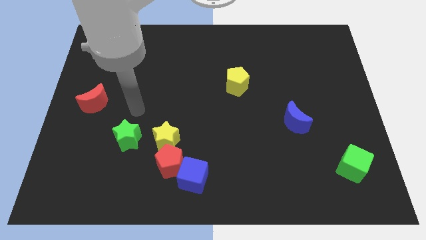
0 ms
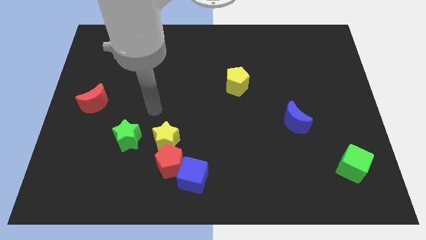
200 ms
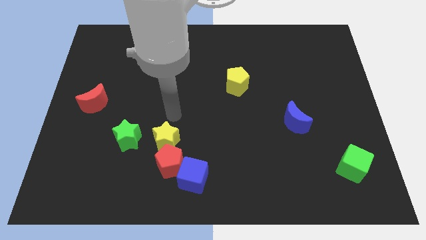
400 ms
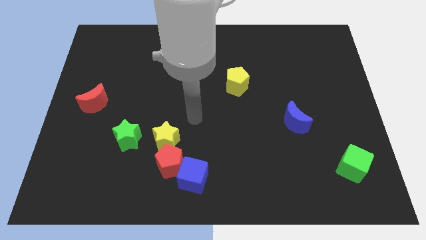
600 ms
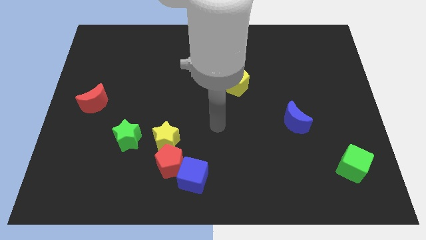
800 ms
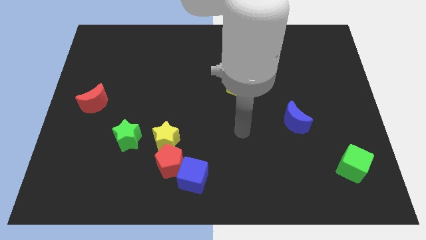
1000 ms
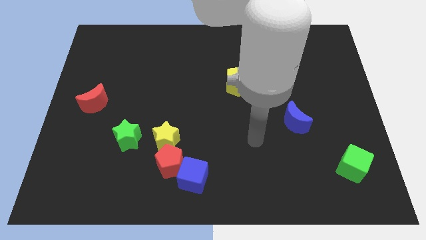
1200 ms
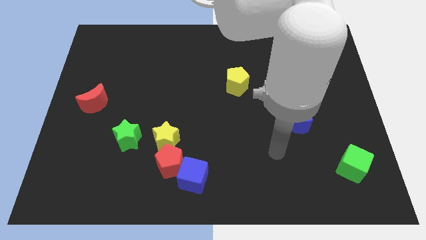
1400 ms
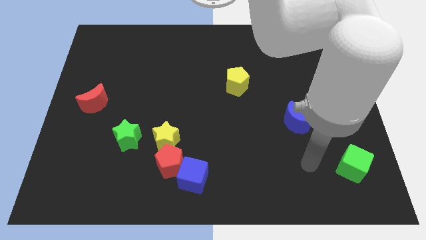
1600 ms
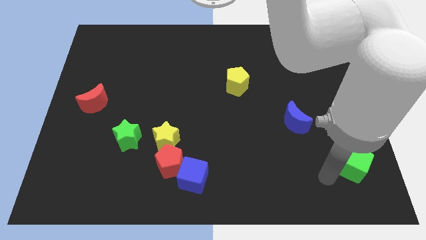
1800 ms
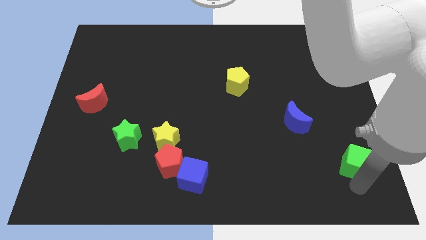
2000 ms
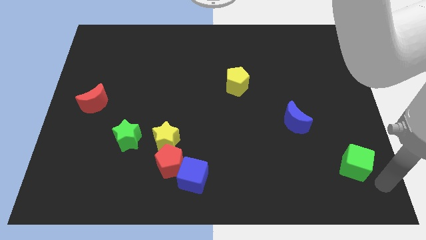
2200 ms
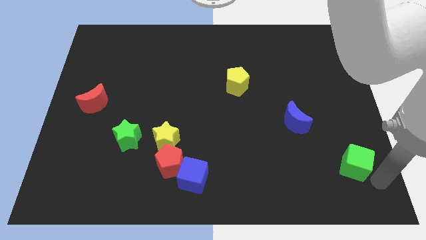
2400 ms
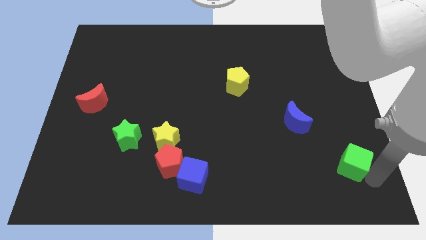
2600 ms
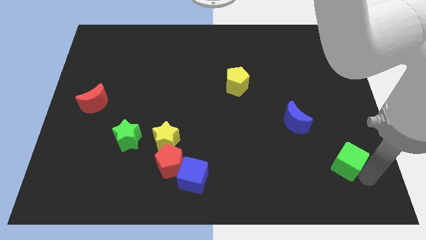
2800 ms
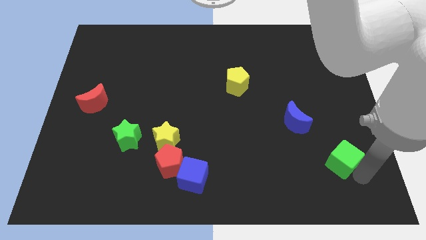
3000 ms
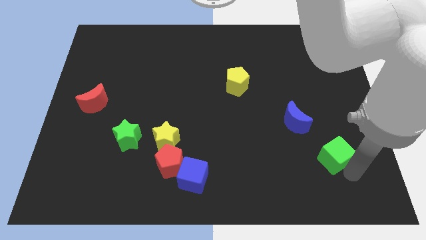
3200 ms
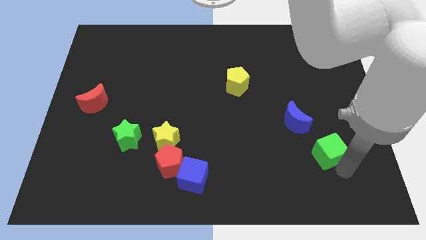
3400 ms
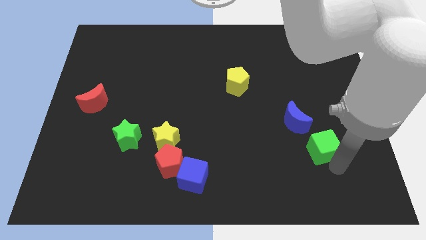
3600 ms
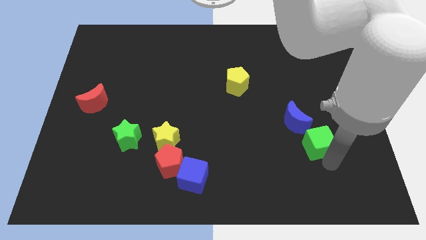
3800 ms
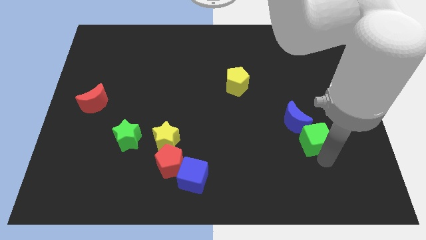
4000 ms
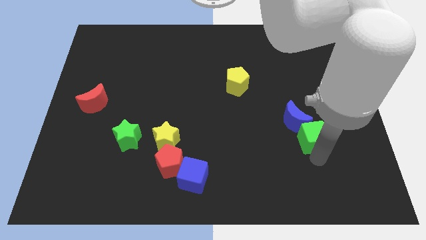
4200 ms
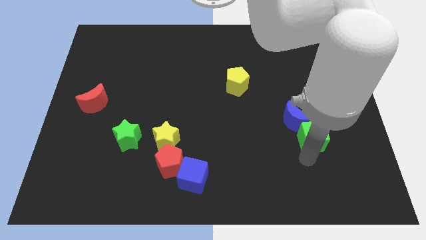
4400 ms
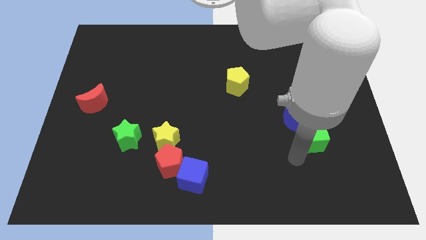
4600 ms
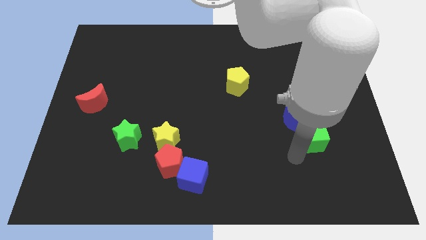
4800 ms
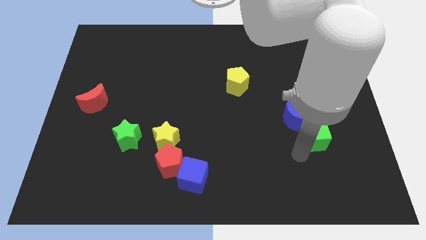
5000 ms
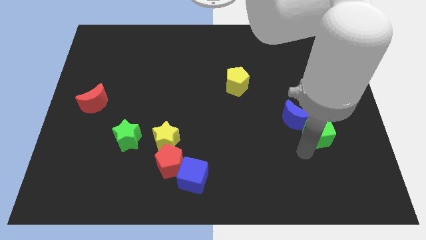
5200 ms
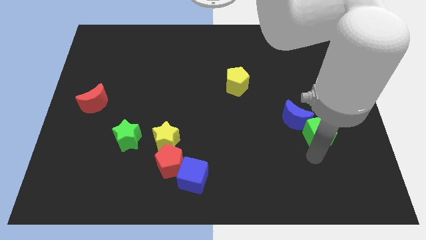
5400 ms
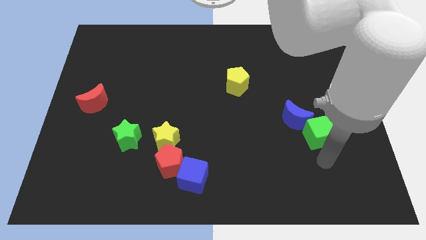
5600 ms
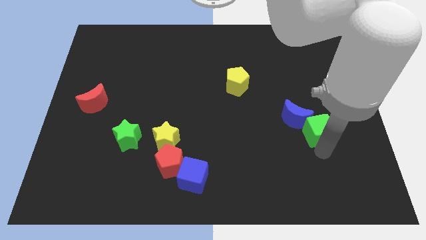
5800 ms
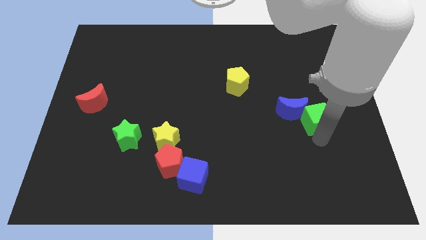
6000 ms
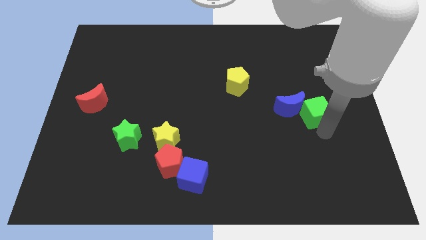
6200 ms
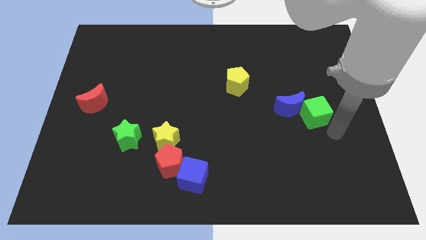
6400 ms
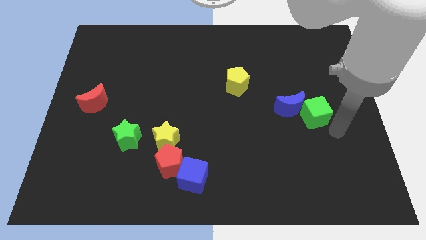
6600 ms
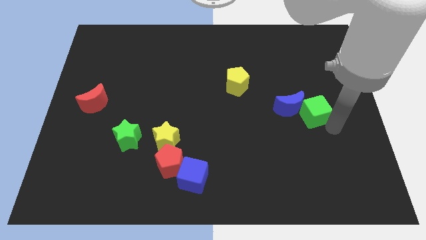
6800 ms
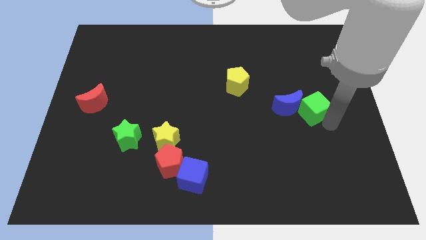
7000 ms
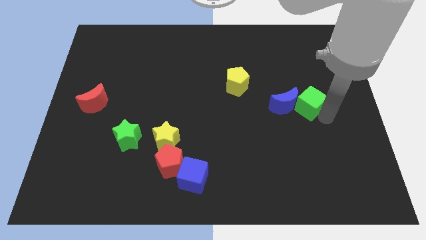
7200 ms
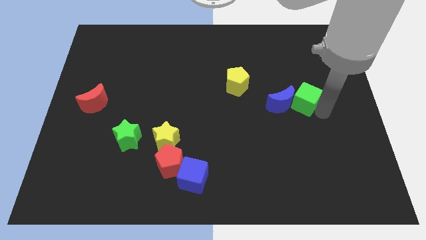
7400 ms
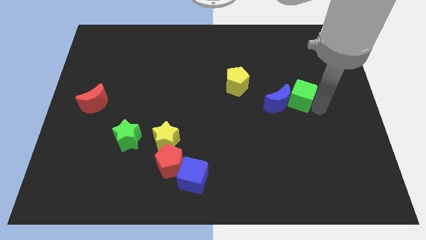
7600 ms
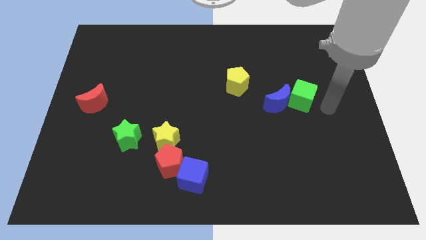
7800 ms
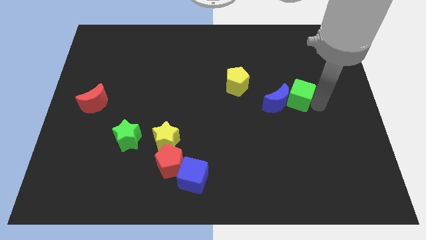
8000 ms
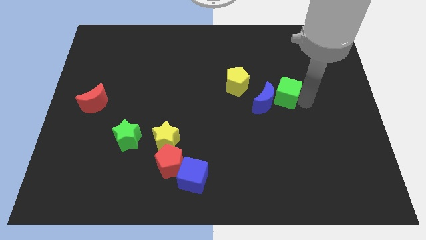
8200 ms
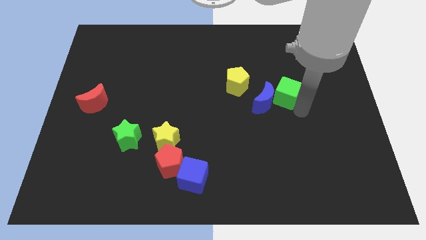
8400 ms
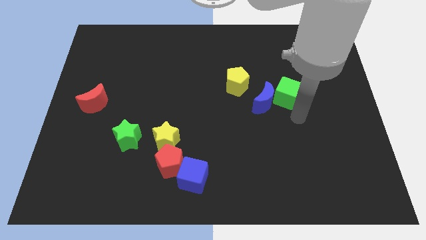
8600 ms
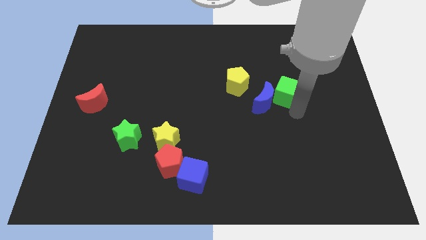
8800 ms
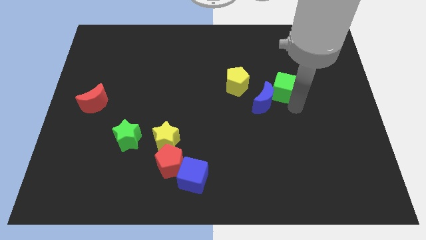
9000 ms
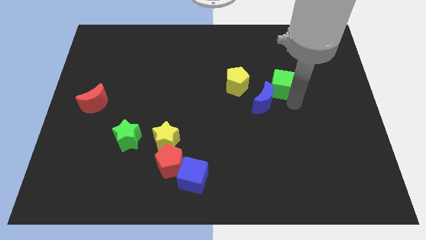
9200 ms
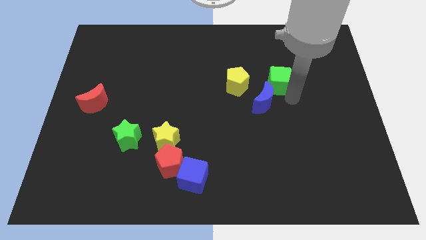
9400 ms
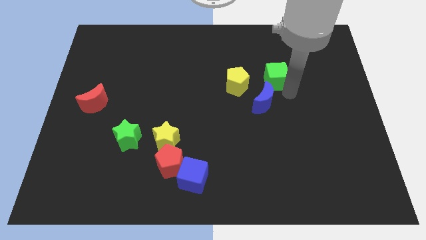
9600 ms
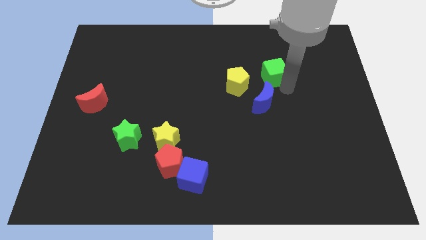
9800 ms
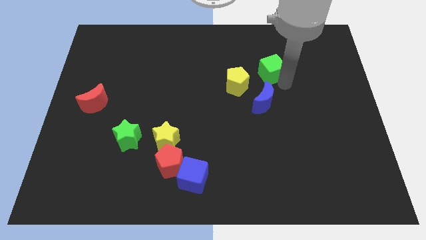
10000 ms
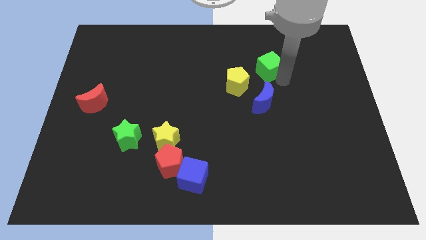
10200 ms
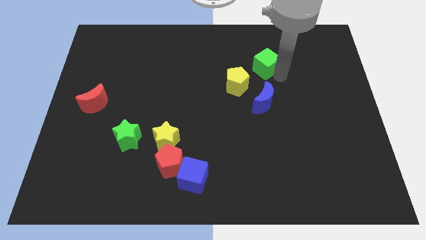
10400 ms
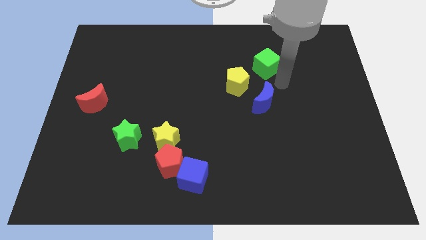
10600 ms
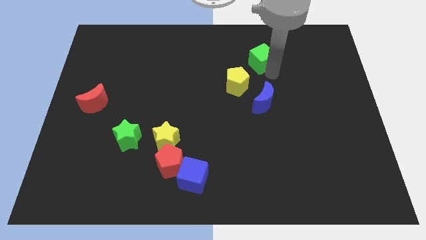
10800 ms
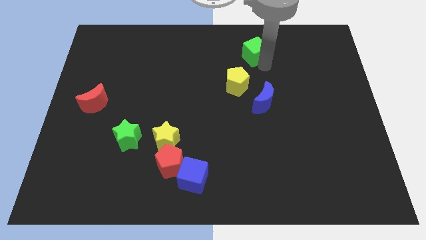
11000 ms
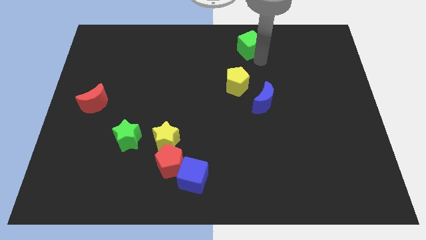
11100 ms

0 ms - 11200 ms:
put the green cube to the towards your base
